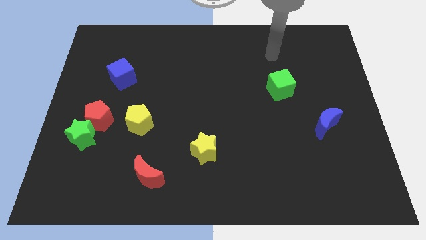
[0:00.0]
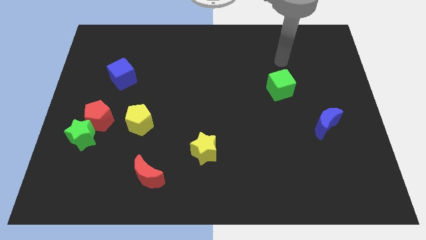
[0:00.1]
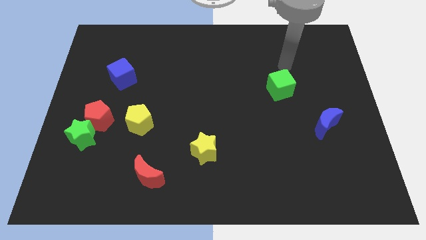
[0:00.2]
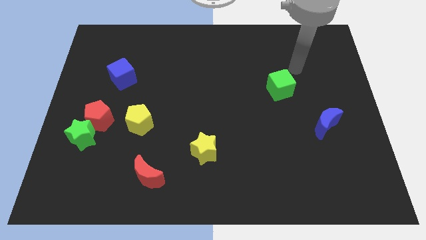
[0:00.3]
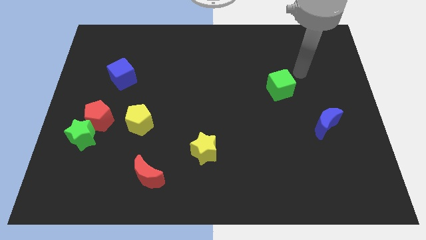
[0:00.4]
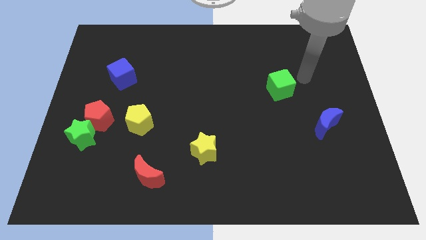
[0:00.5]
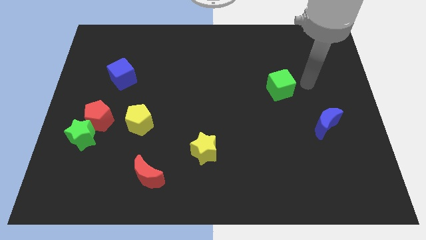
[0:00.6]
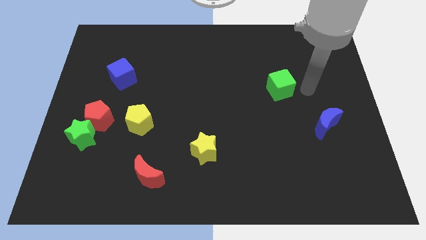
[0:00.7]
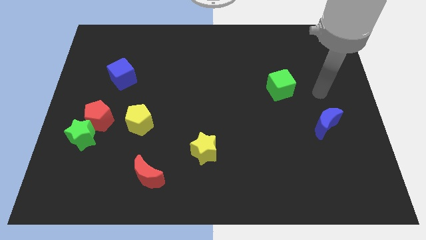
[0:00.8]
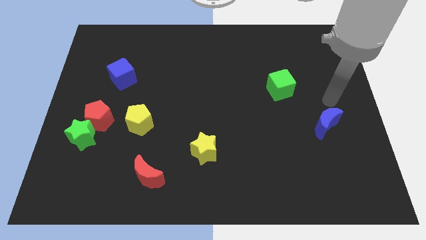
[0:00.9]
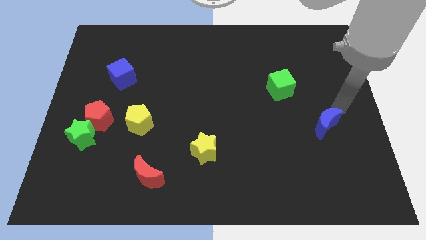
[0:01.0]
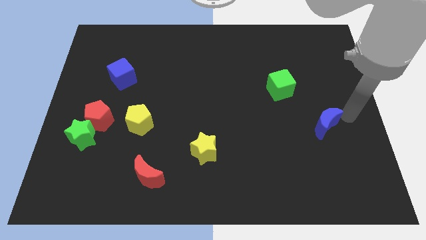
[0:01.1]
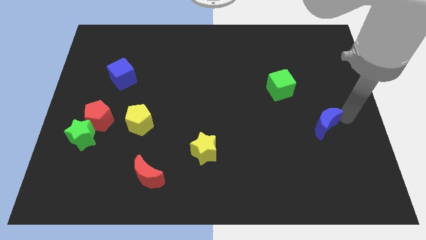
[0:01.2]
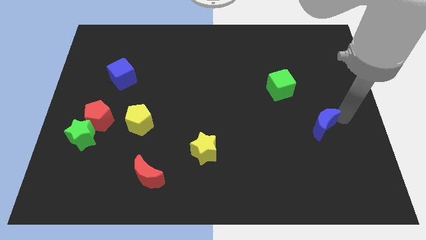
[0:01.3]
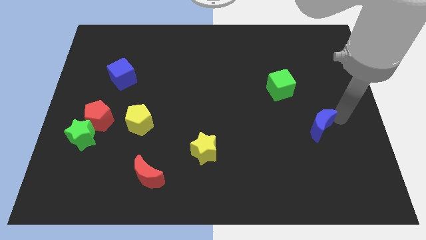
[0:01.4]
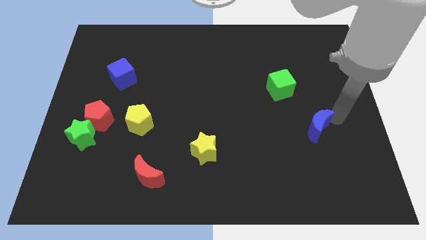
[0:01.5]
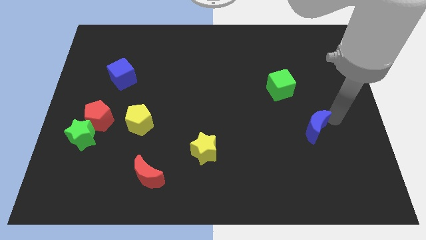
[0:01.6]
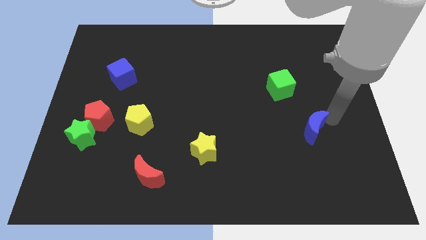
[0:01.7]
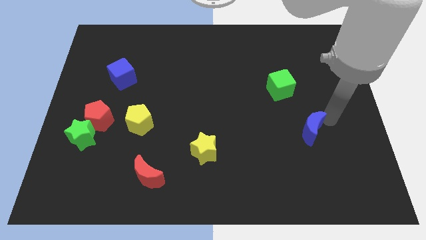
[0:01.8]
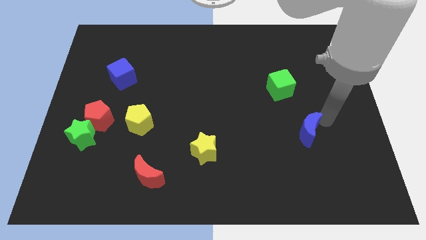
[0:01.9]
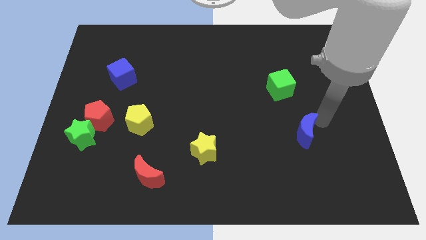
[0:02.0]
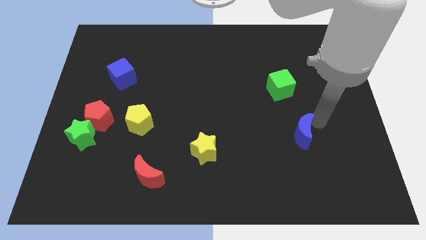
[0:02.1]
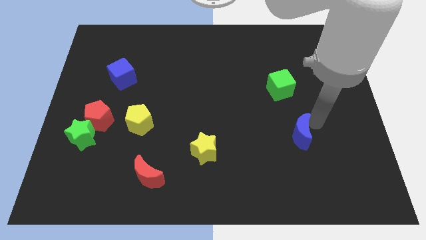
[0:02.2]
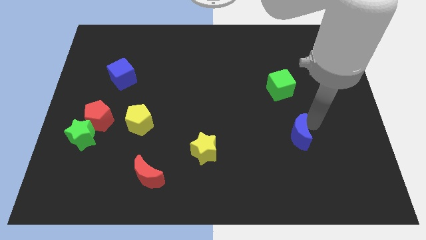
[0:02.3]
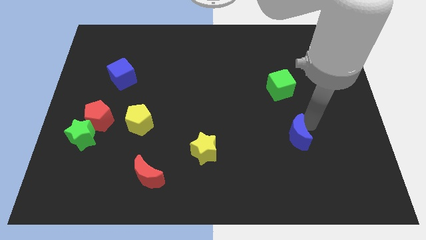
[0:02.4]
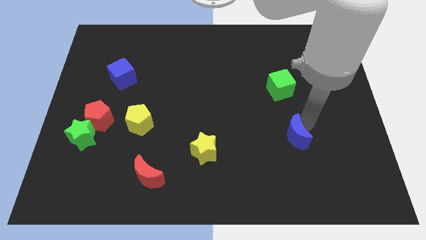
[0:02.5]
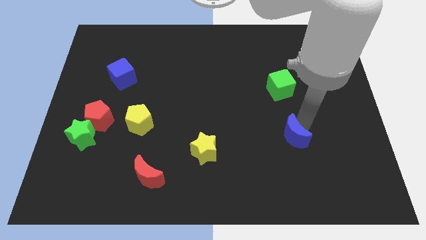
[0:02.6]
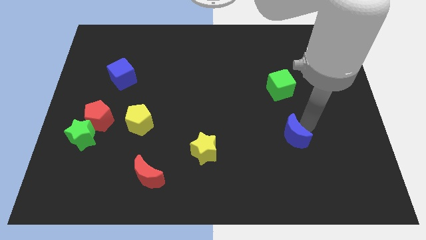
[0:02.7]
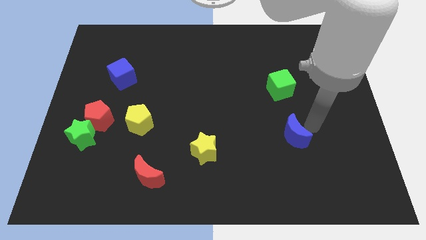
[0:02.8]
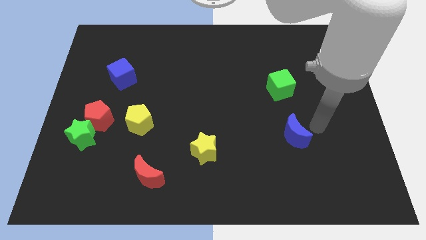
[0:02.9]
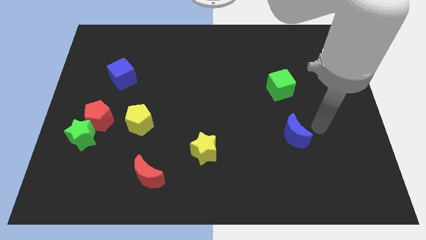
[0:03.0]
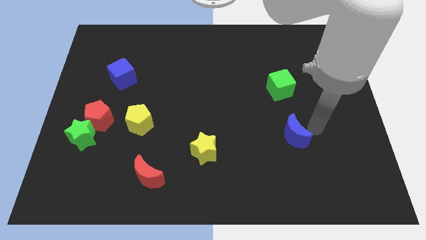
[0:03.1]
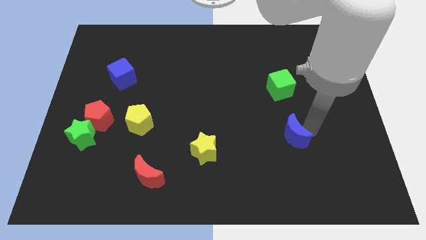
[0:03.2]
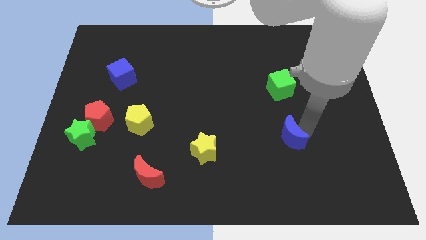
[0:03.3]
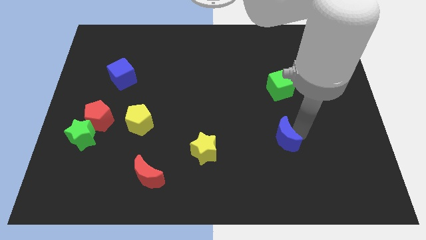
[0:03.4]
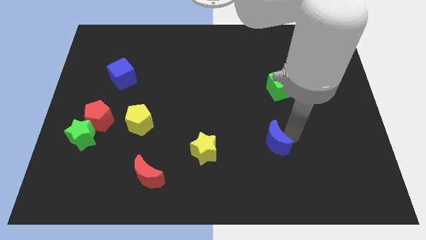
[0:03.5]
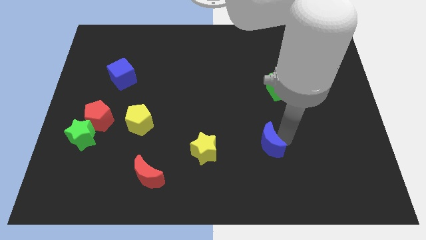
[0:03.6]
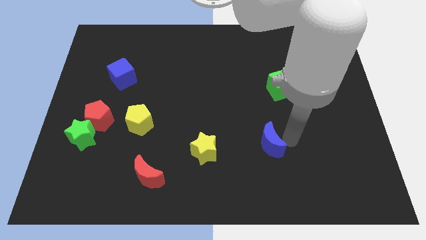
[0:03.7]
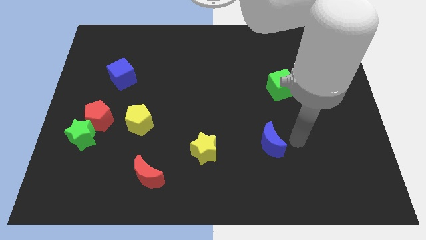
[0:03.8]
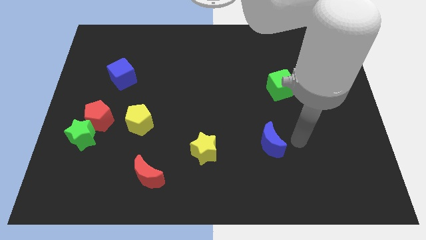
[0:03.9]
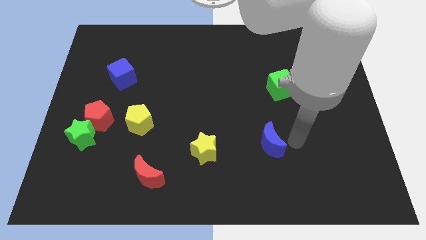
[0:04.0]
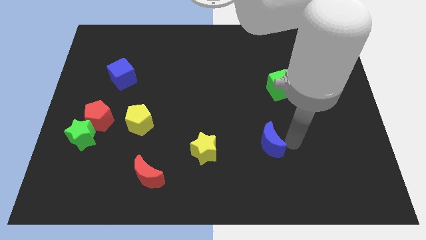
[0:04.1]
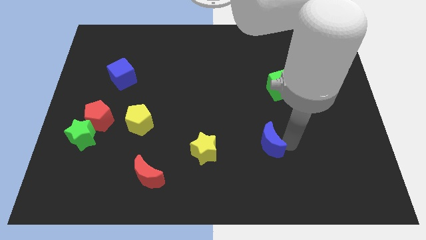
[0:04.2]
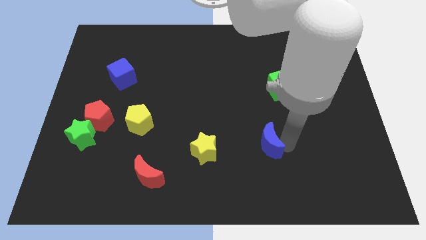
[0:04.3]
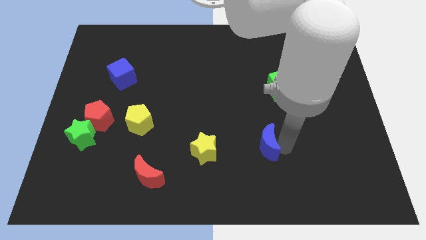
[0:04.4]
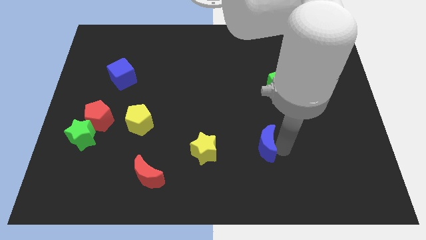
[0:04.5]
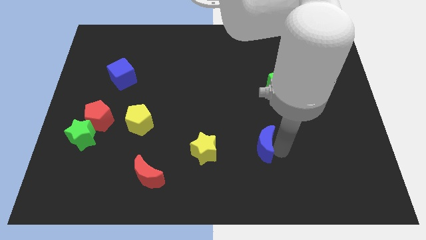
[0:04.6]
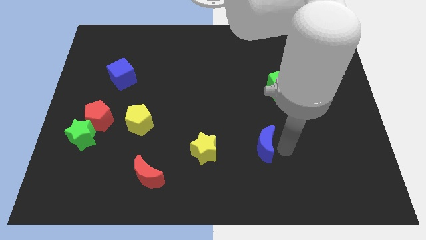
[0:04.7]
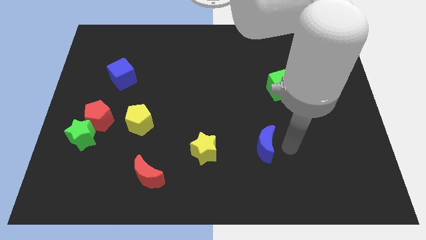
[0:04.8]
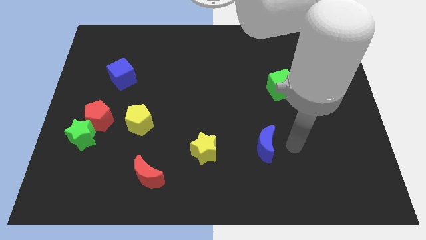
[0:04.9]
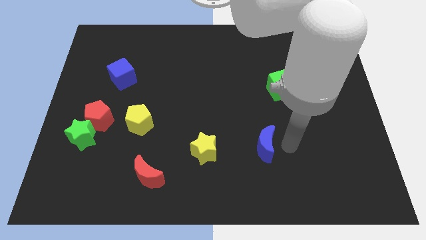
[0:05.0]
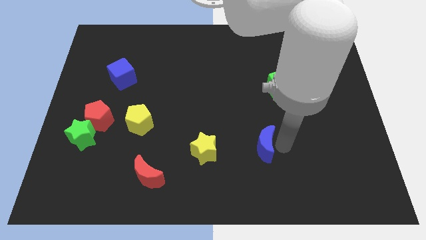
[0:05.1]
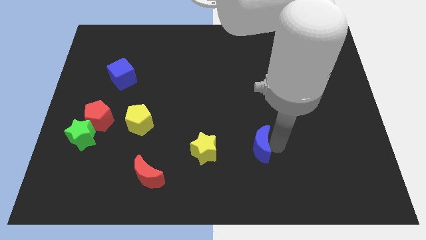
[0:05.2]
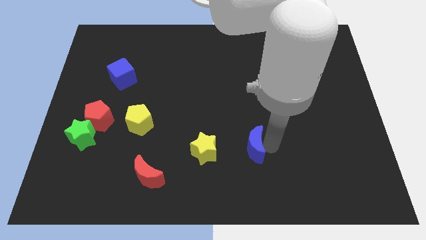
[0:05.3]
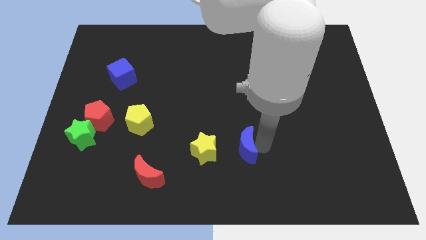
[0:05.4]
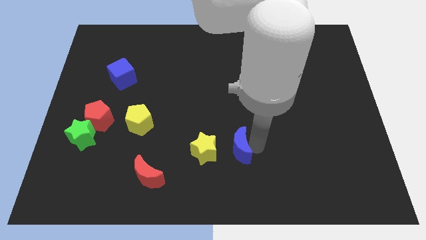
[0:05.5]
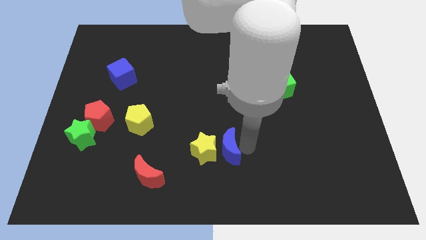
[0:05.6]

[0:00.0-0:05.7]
move the blue moon close to the yellow star

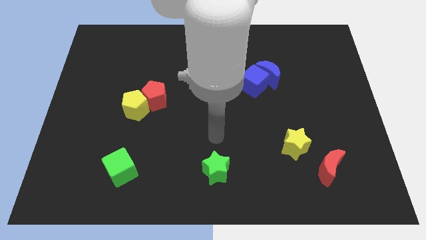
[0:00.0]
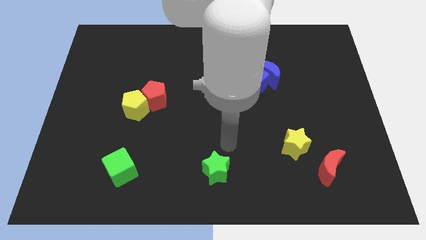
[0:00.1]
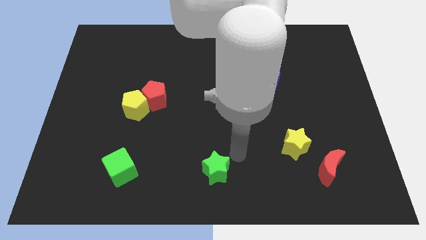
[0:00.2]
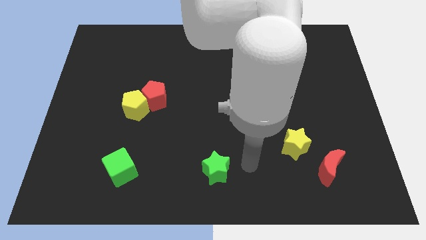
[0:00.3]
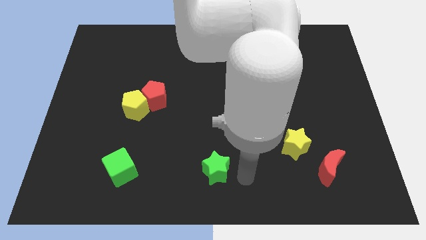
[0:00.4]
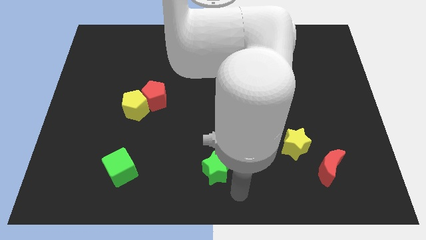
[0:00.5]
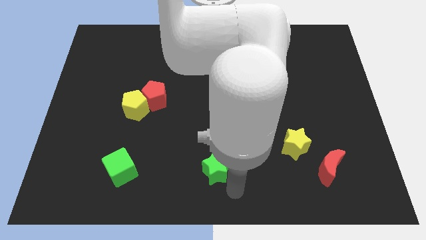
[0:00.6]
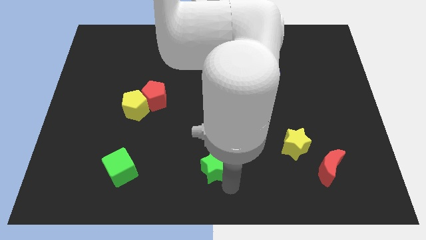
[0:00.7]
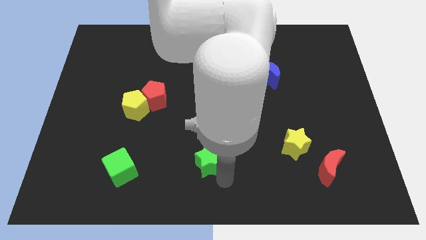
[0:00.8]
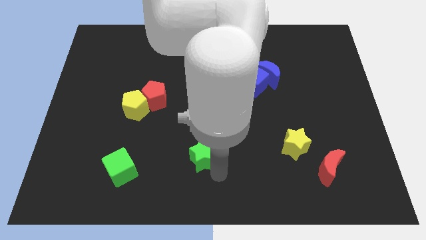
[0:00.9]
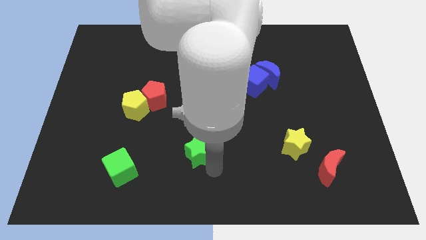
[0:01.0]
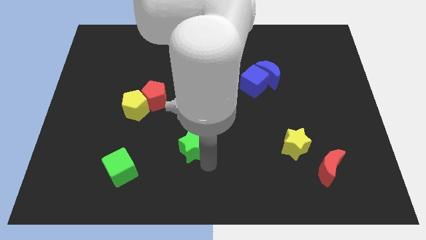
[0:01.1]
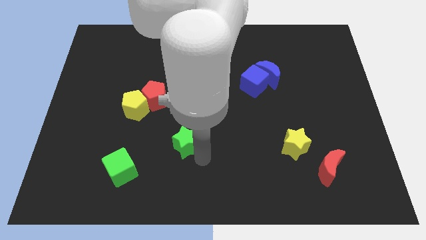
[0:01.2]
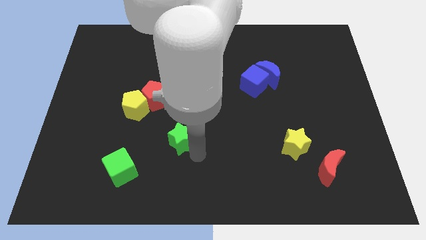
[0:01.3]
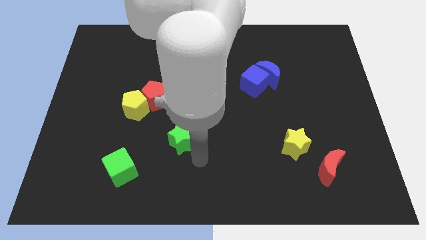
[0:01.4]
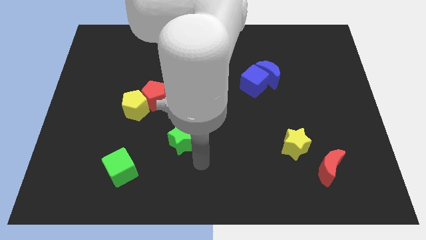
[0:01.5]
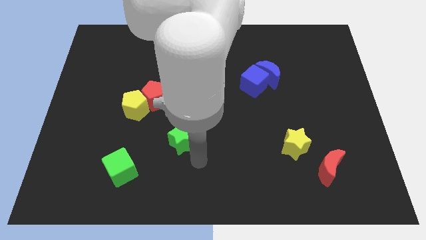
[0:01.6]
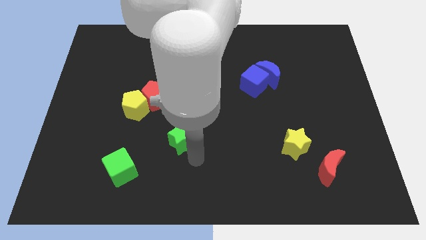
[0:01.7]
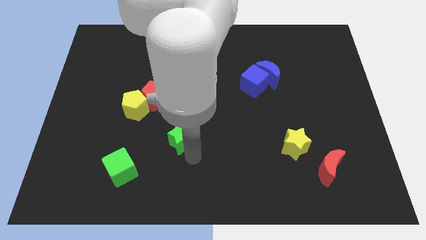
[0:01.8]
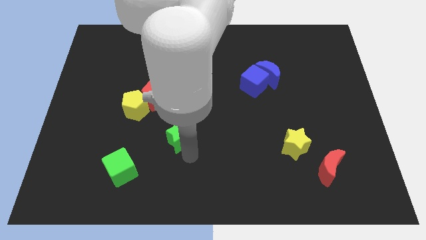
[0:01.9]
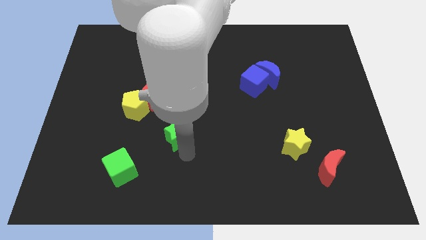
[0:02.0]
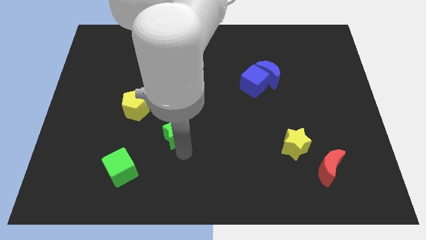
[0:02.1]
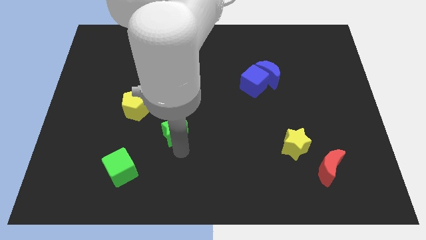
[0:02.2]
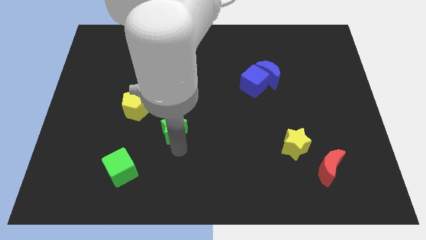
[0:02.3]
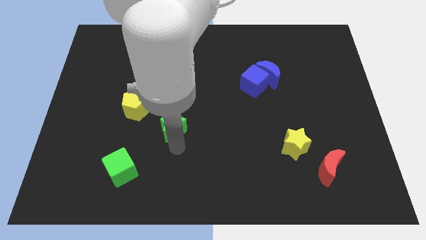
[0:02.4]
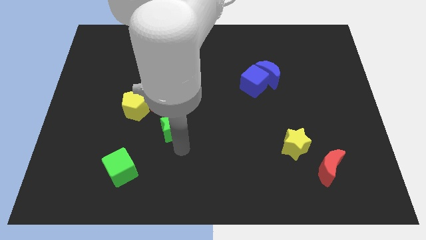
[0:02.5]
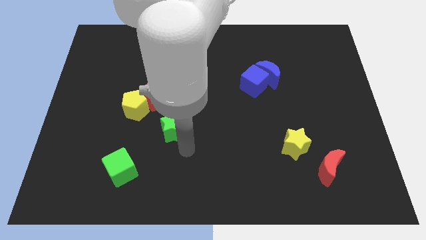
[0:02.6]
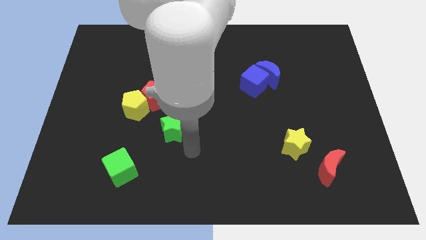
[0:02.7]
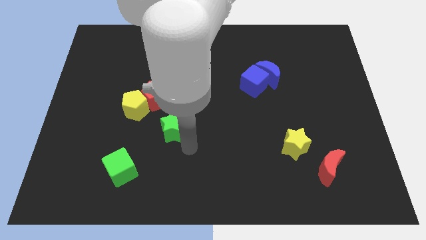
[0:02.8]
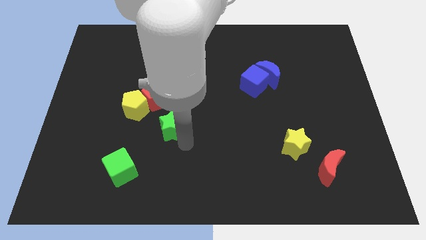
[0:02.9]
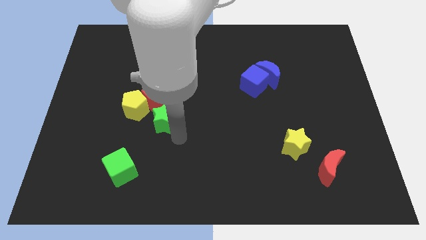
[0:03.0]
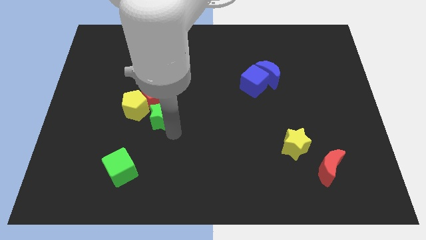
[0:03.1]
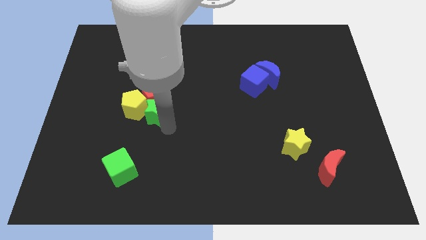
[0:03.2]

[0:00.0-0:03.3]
put the green star next to the red pentagon
